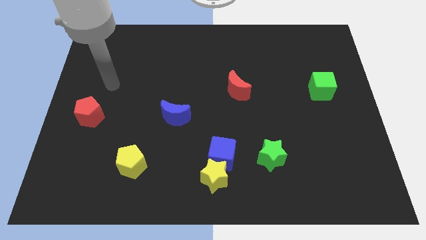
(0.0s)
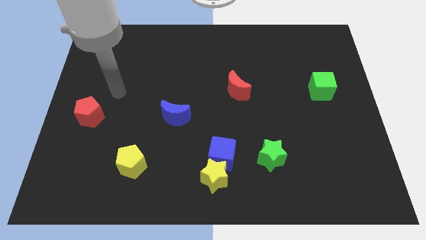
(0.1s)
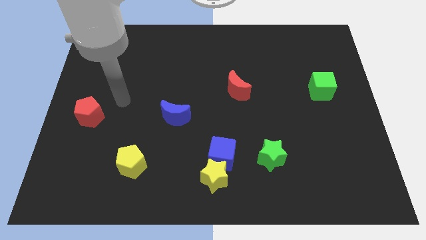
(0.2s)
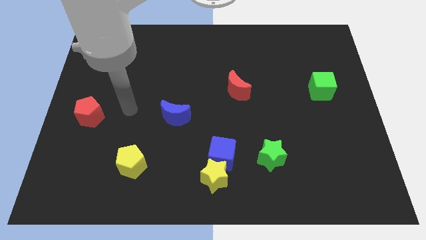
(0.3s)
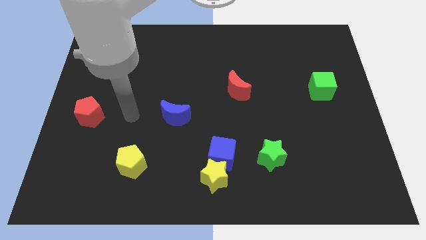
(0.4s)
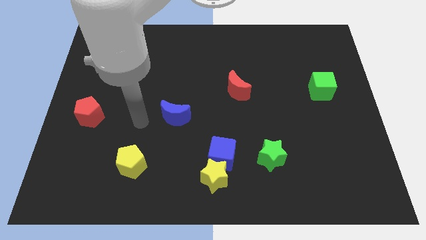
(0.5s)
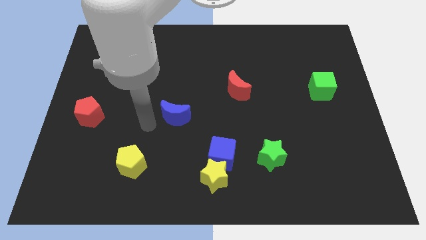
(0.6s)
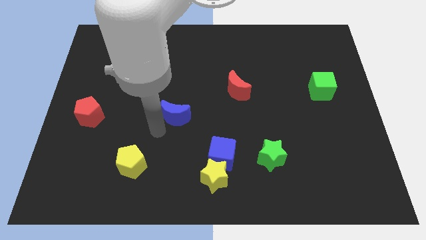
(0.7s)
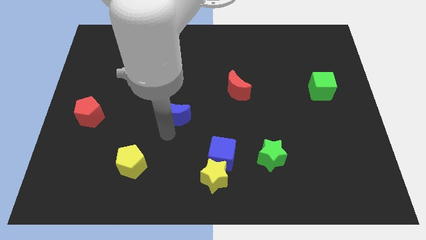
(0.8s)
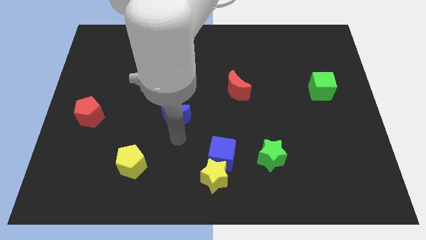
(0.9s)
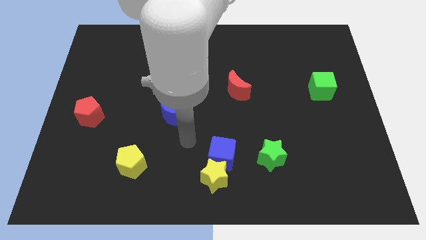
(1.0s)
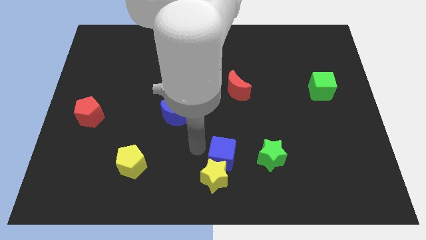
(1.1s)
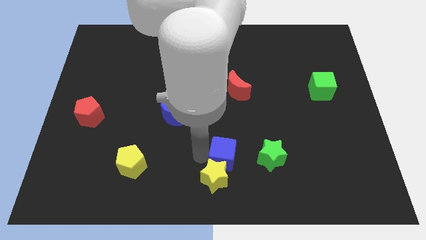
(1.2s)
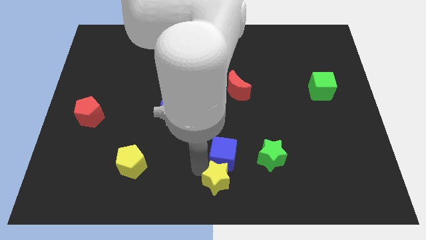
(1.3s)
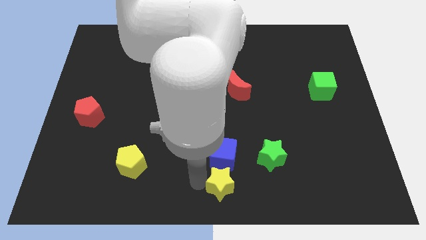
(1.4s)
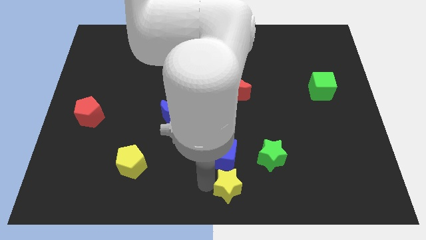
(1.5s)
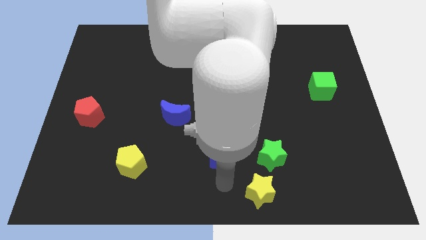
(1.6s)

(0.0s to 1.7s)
pull the blue cube apart from the yellow star

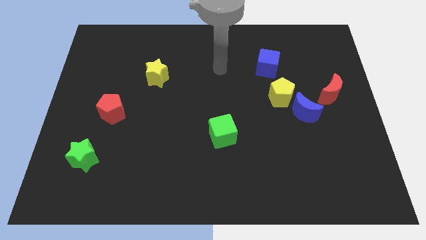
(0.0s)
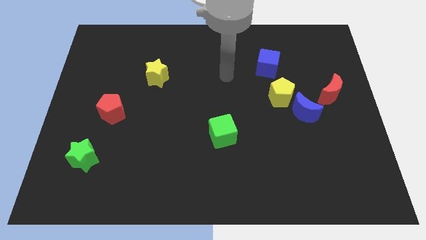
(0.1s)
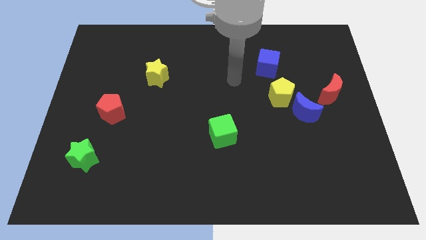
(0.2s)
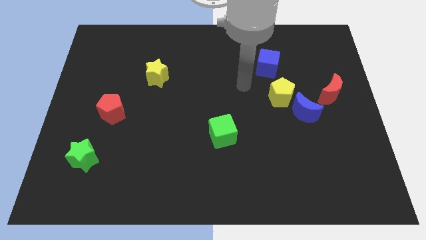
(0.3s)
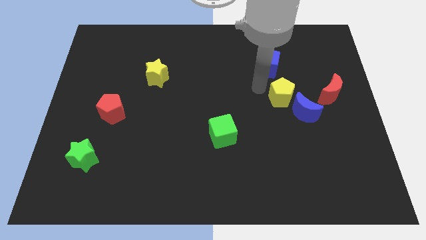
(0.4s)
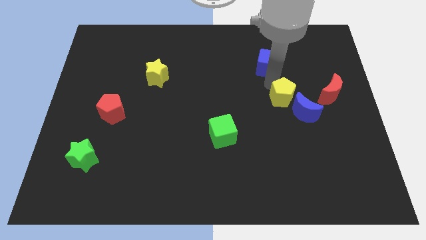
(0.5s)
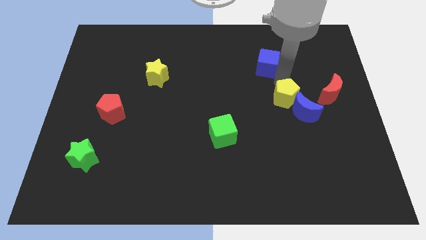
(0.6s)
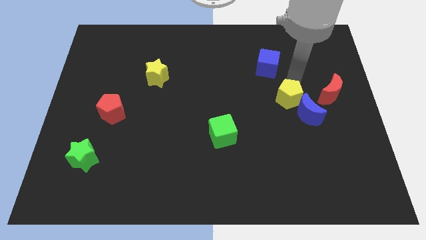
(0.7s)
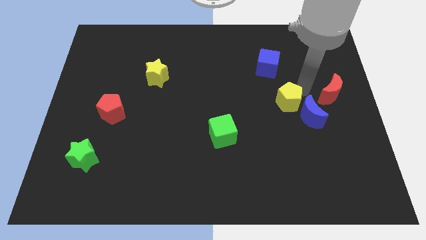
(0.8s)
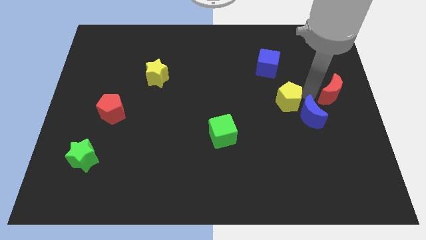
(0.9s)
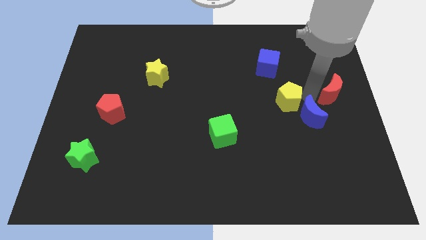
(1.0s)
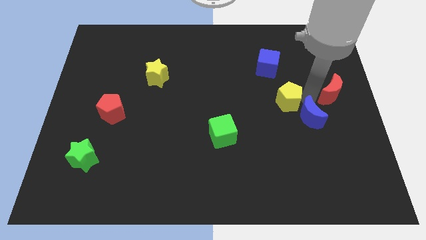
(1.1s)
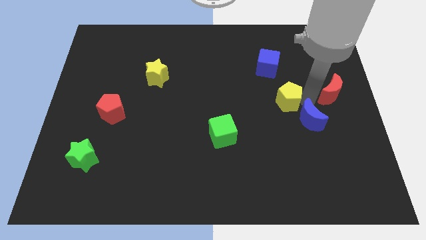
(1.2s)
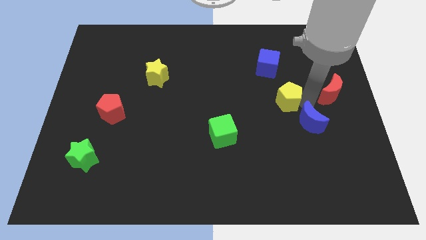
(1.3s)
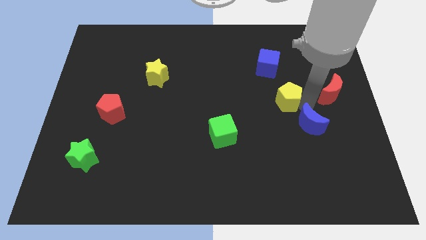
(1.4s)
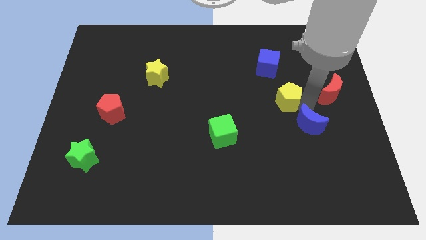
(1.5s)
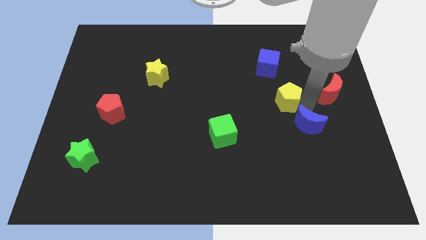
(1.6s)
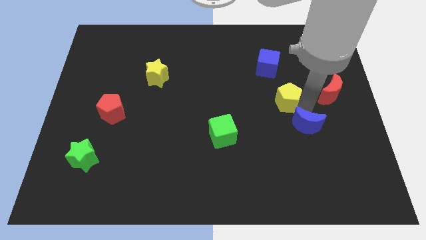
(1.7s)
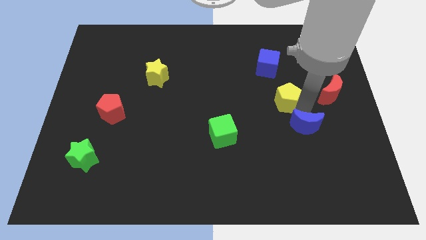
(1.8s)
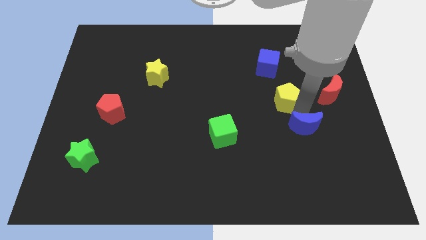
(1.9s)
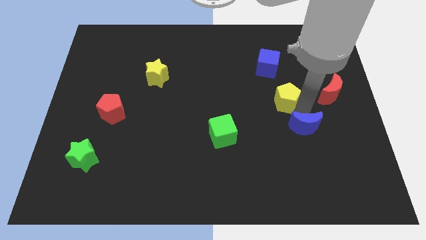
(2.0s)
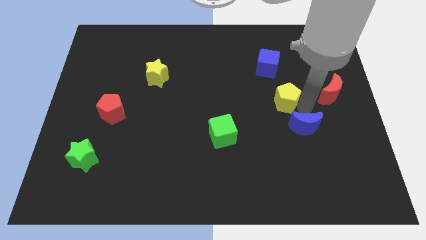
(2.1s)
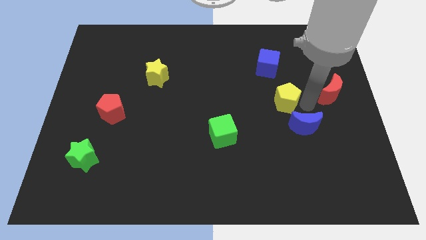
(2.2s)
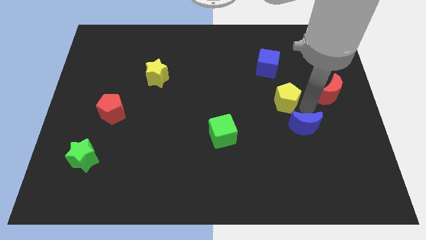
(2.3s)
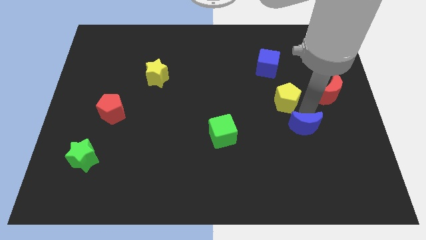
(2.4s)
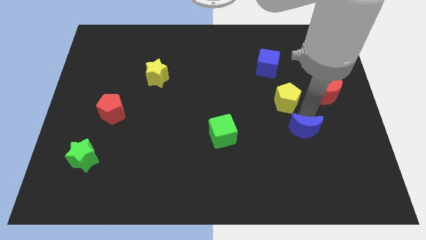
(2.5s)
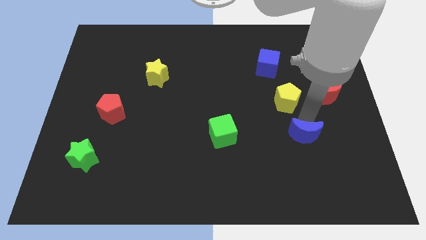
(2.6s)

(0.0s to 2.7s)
move the blue moon away from the yellow pentagon and red moon

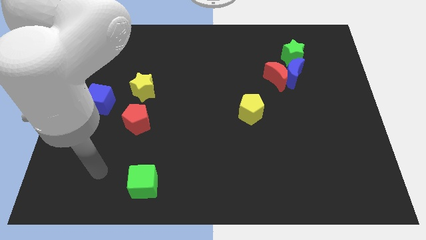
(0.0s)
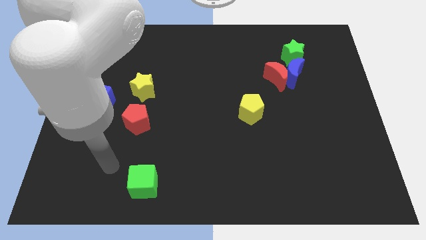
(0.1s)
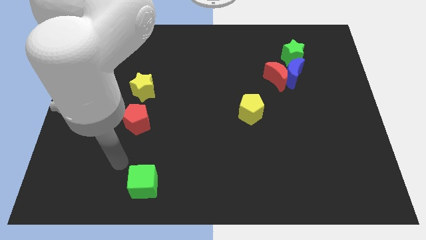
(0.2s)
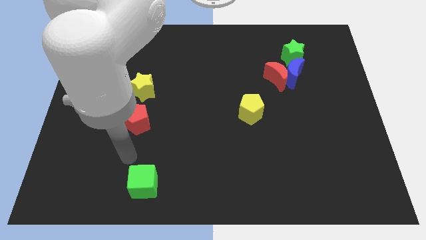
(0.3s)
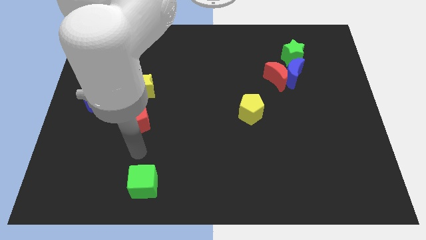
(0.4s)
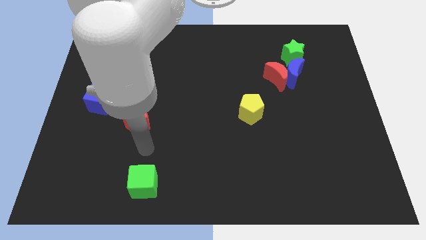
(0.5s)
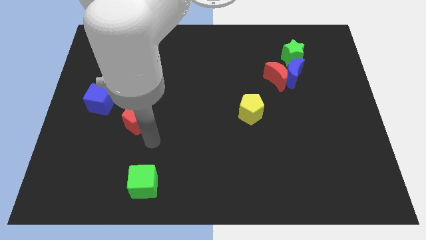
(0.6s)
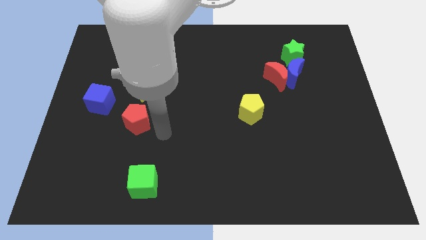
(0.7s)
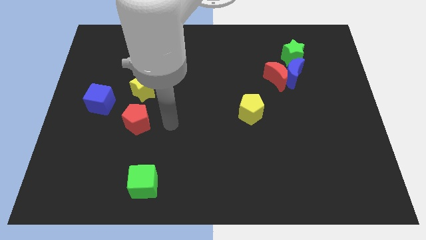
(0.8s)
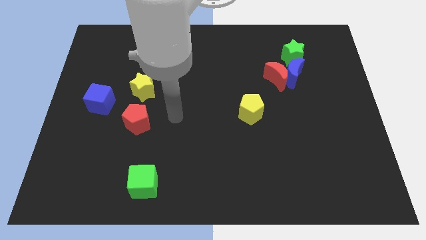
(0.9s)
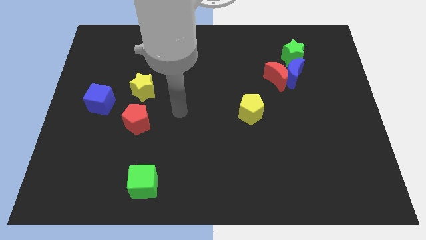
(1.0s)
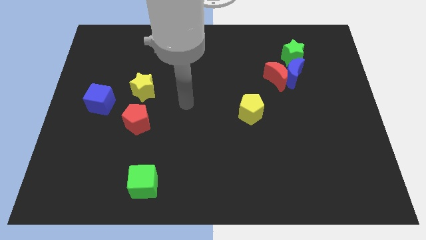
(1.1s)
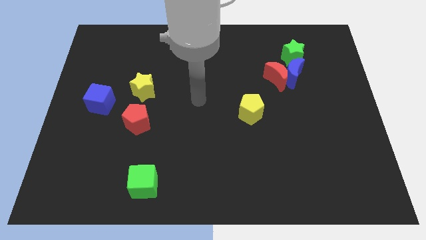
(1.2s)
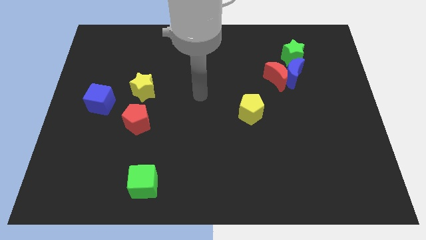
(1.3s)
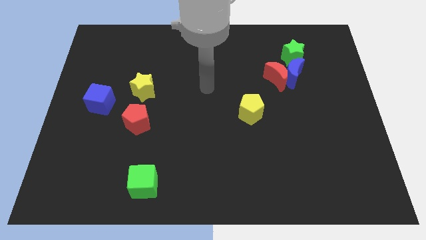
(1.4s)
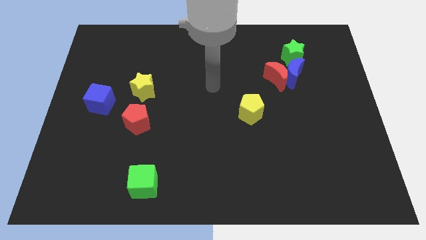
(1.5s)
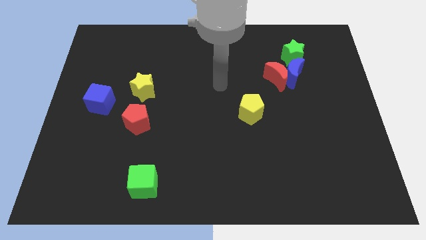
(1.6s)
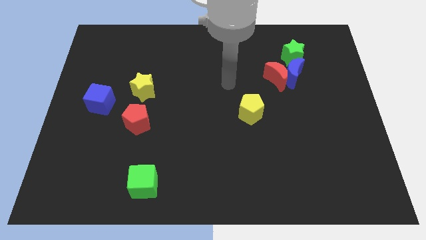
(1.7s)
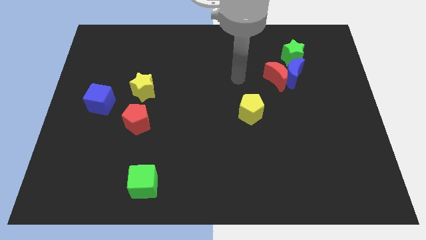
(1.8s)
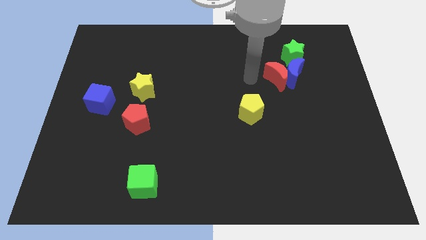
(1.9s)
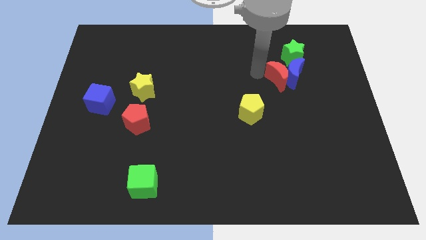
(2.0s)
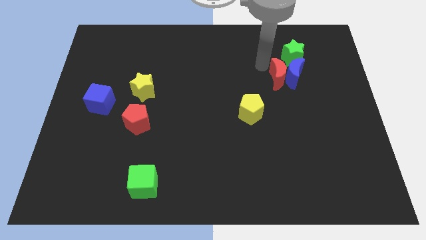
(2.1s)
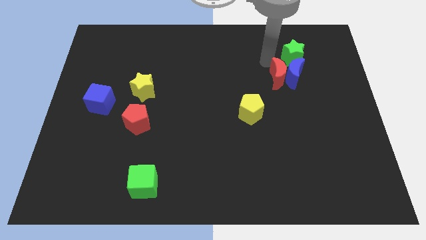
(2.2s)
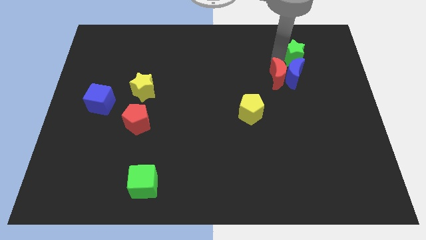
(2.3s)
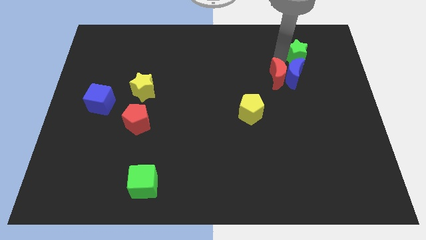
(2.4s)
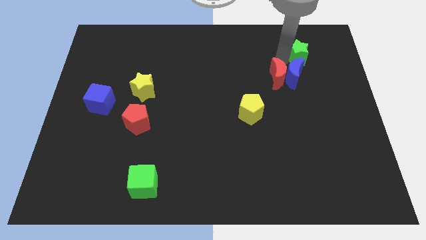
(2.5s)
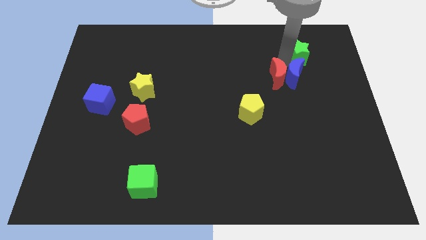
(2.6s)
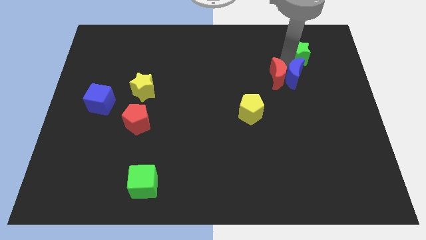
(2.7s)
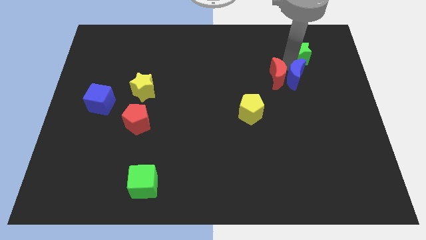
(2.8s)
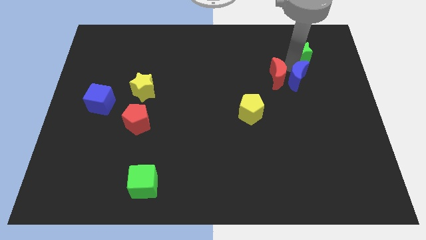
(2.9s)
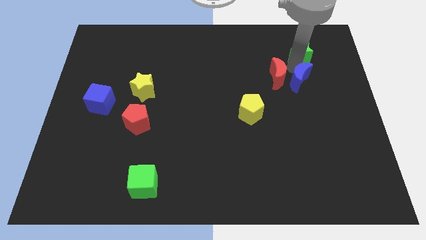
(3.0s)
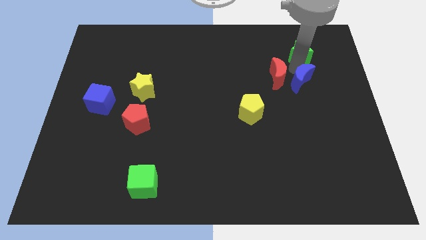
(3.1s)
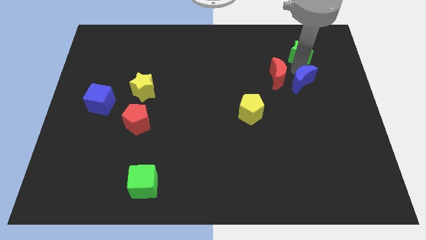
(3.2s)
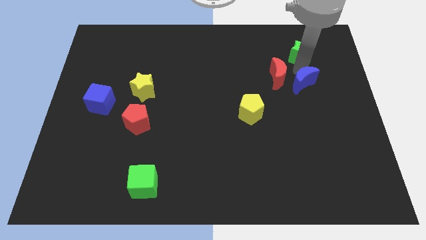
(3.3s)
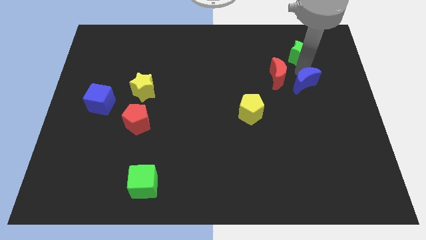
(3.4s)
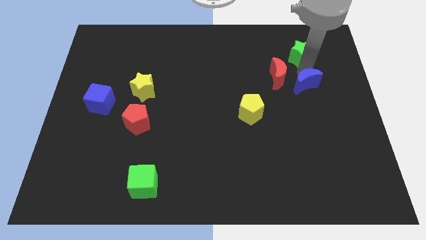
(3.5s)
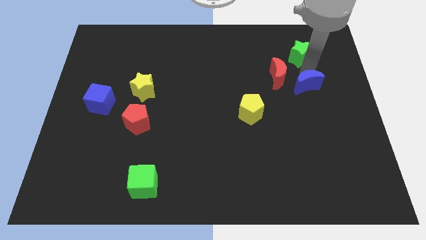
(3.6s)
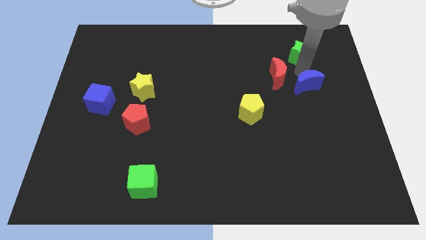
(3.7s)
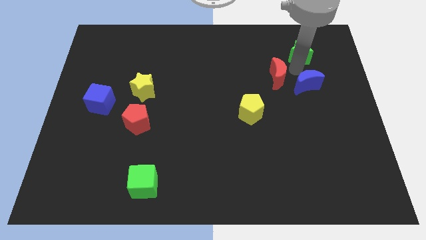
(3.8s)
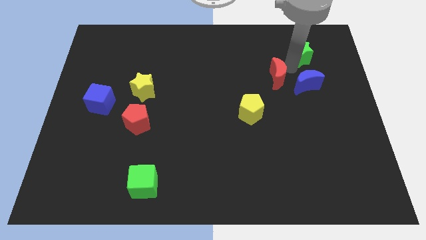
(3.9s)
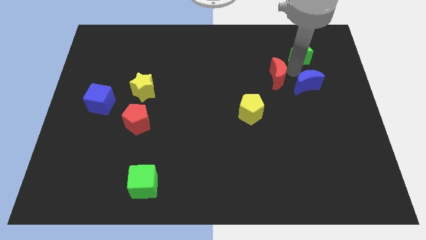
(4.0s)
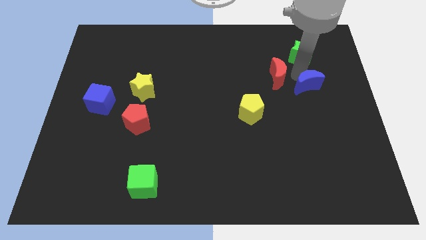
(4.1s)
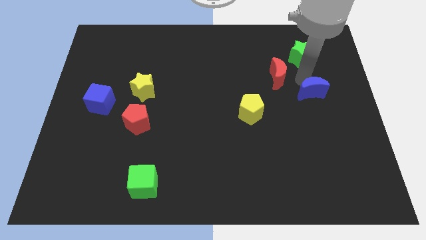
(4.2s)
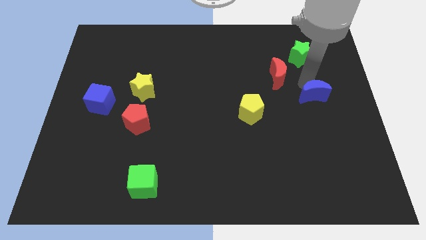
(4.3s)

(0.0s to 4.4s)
separate the blue moon from the red moon and green star

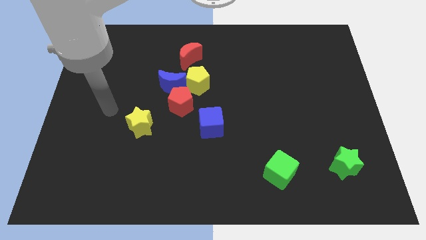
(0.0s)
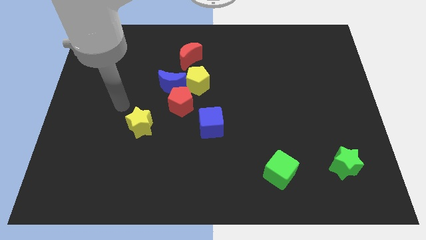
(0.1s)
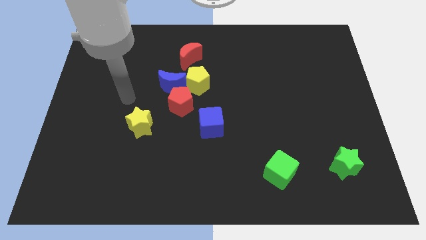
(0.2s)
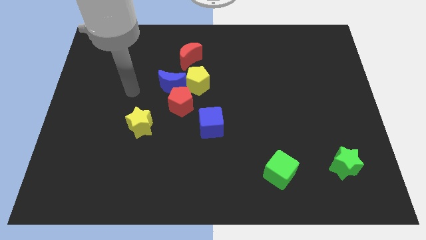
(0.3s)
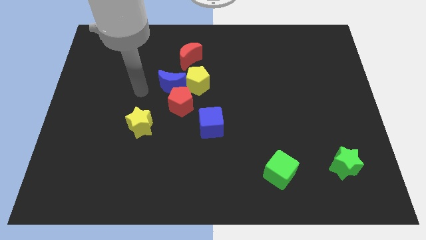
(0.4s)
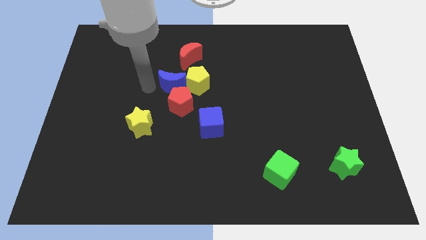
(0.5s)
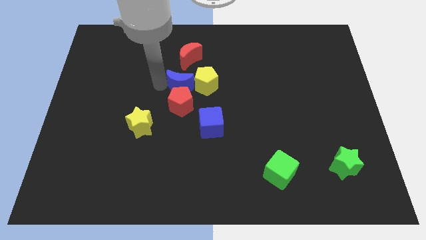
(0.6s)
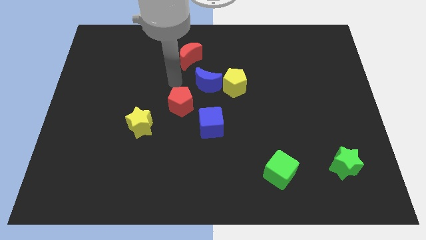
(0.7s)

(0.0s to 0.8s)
move the yellow pentagon away from the group
